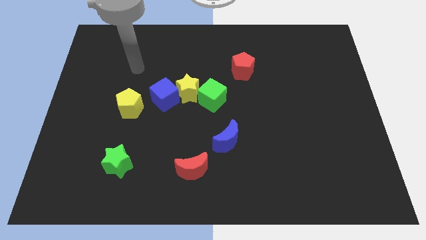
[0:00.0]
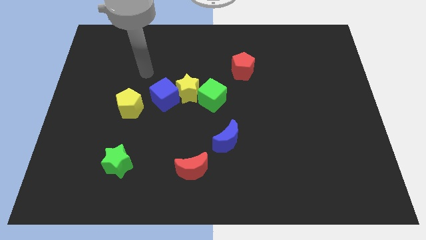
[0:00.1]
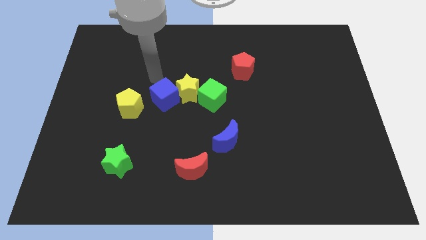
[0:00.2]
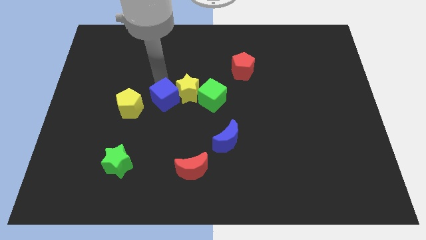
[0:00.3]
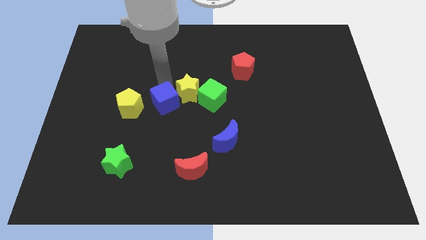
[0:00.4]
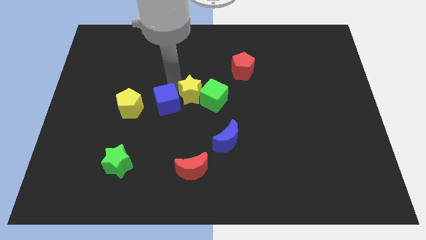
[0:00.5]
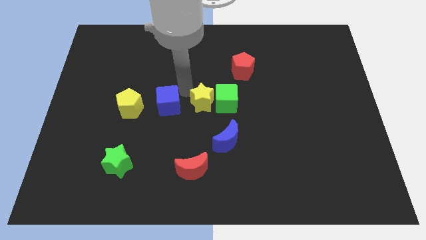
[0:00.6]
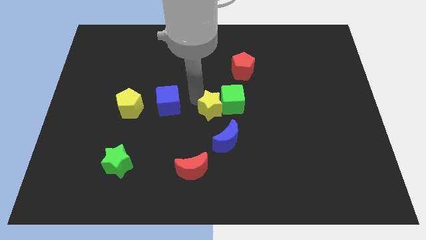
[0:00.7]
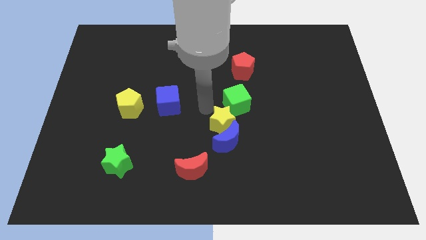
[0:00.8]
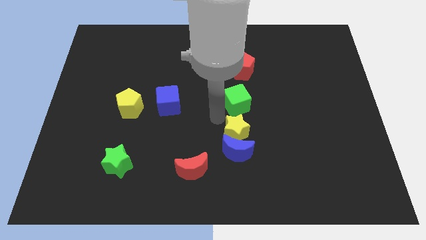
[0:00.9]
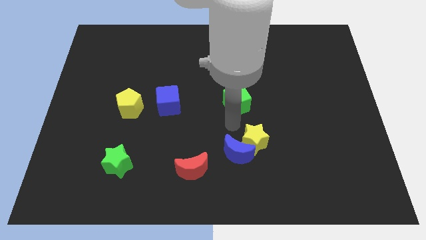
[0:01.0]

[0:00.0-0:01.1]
pull the green cube apart from the yellow star

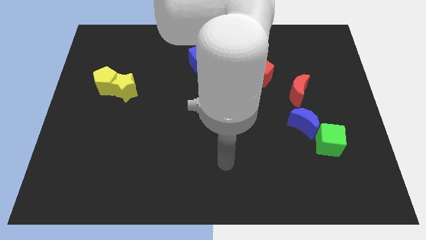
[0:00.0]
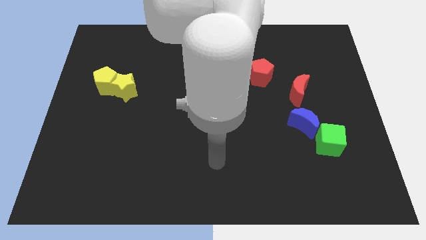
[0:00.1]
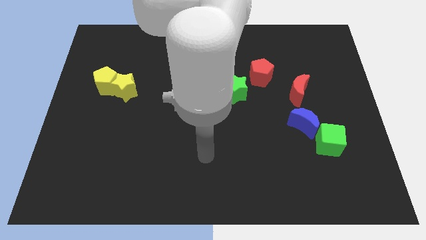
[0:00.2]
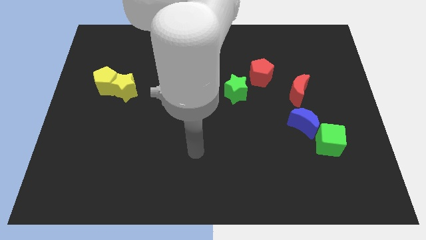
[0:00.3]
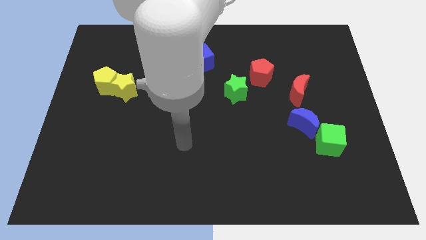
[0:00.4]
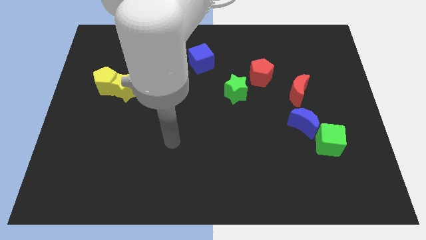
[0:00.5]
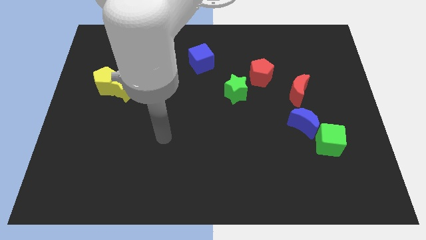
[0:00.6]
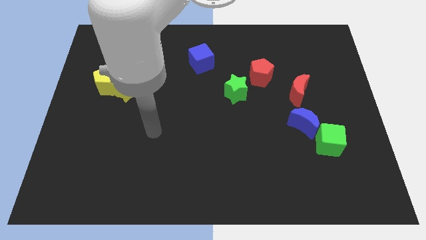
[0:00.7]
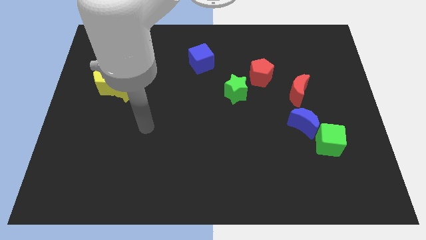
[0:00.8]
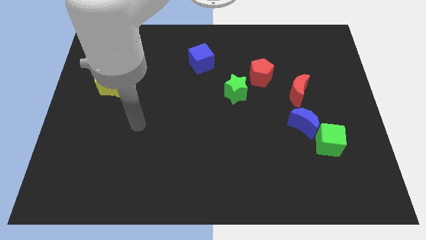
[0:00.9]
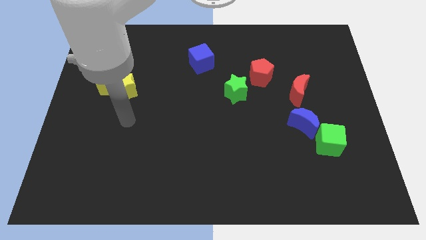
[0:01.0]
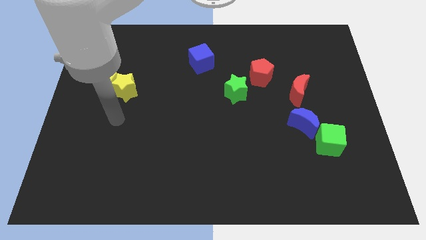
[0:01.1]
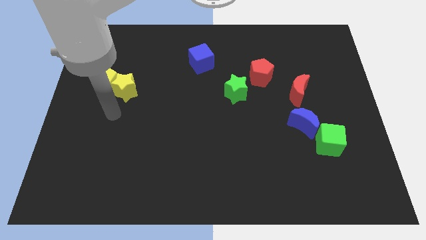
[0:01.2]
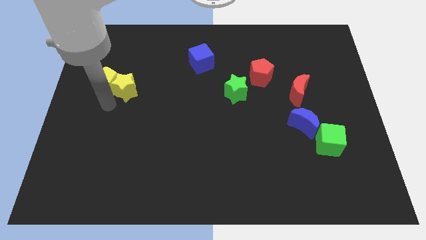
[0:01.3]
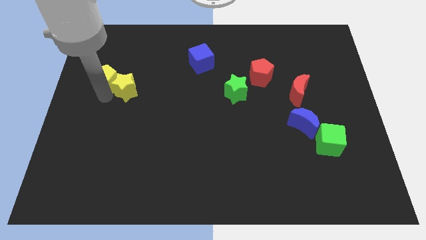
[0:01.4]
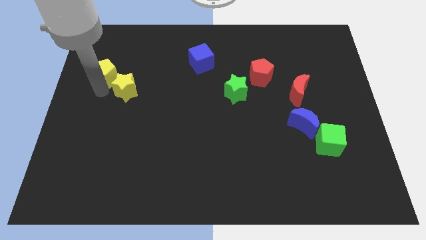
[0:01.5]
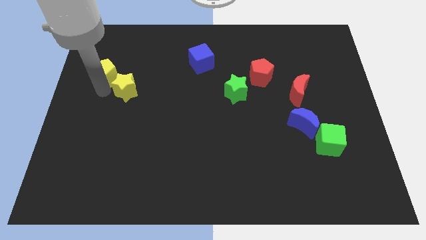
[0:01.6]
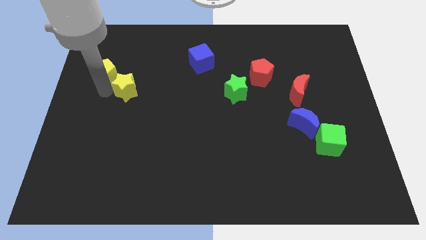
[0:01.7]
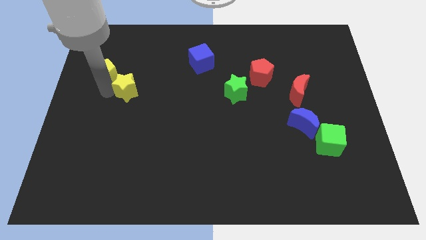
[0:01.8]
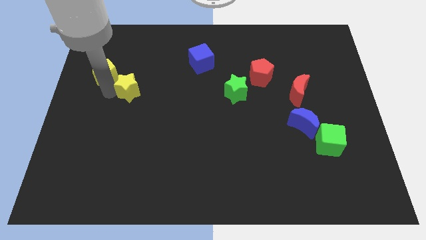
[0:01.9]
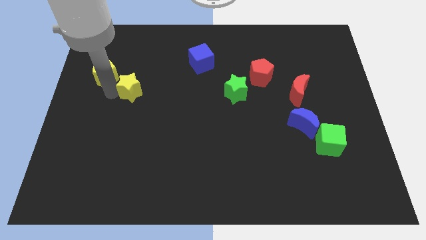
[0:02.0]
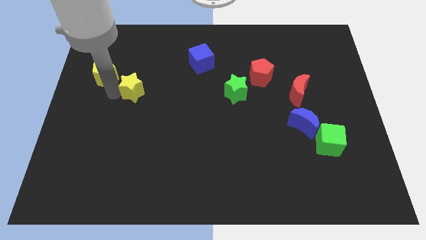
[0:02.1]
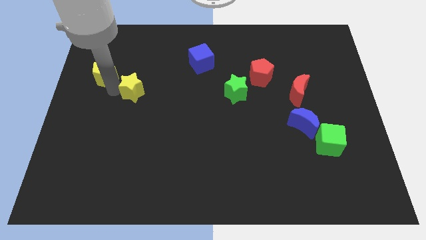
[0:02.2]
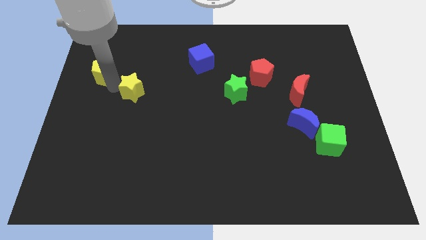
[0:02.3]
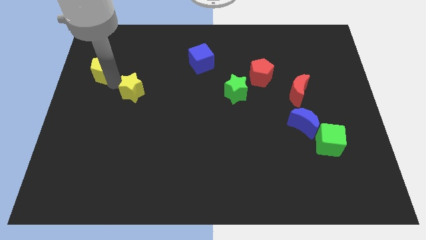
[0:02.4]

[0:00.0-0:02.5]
pull the yellow star apart from the yellow pentagon

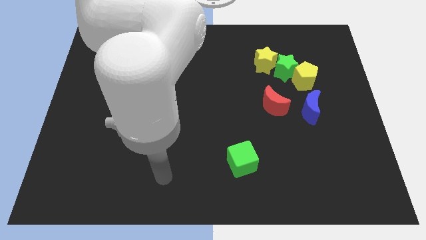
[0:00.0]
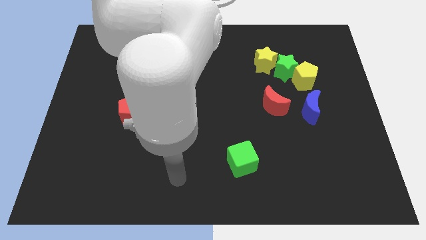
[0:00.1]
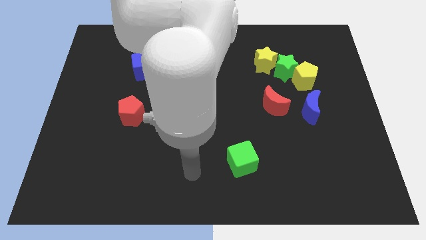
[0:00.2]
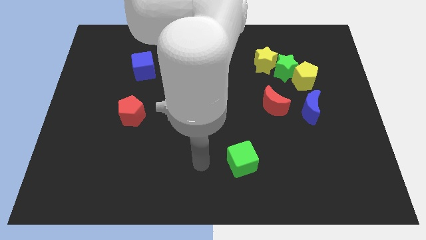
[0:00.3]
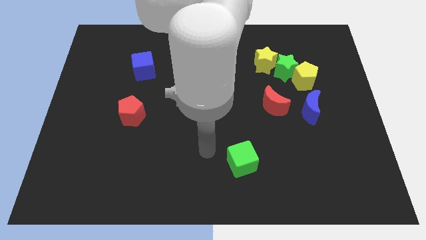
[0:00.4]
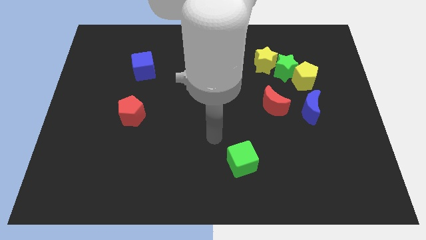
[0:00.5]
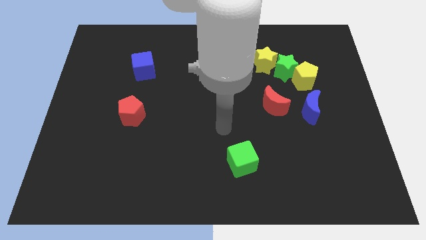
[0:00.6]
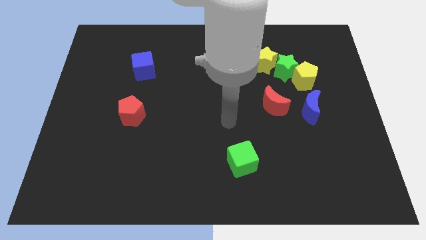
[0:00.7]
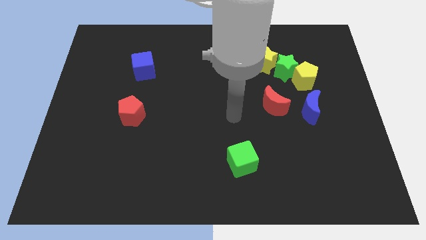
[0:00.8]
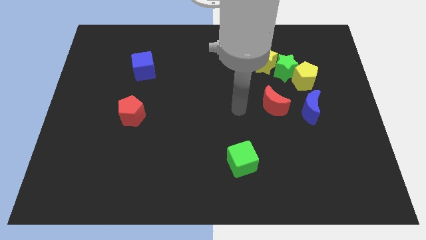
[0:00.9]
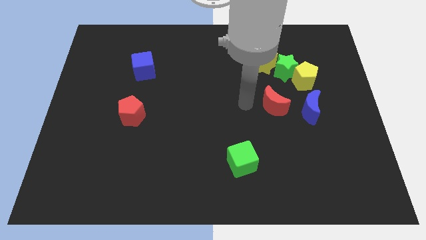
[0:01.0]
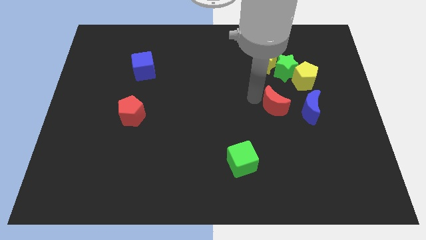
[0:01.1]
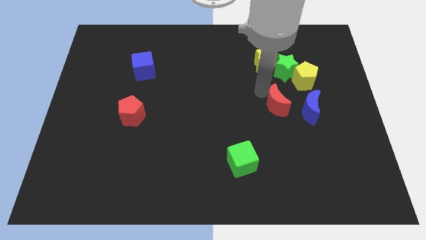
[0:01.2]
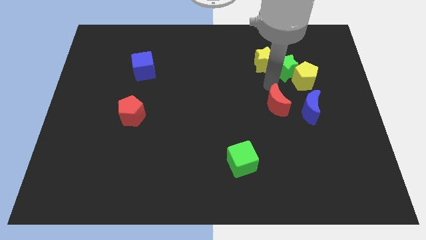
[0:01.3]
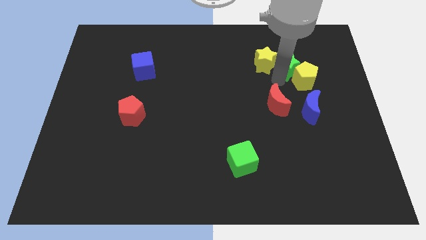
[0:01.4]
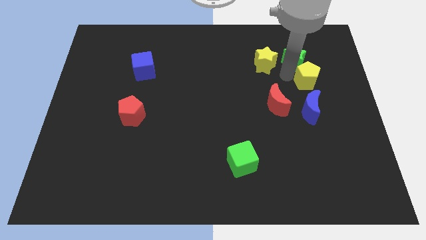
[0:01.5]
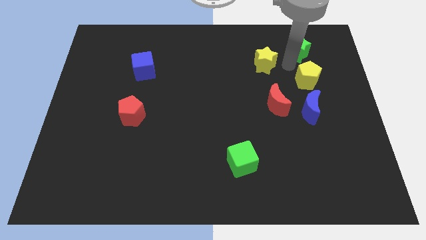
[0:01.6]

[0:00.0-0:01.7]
move the yellow star away from the green star

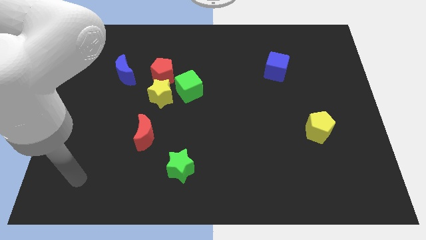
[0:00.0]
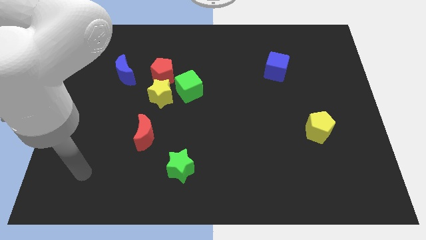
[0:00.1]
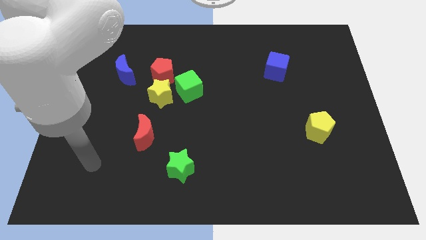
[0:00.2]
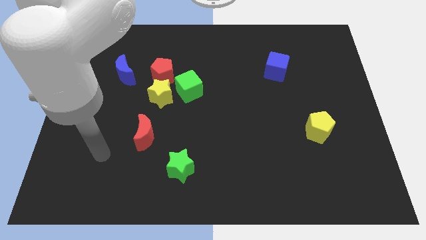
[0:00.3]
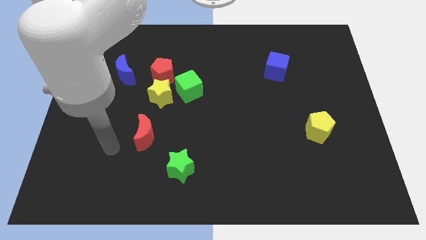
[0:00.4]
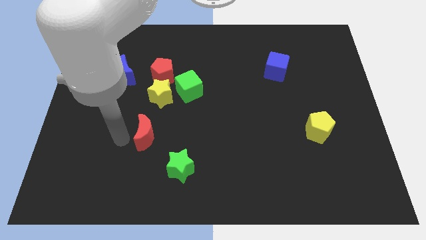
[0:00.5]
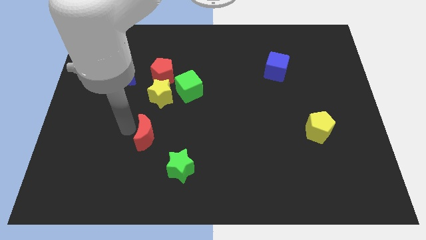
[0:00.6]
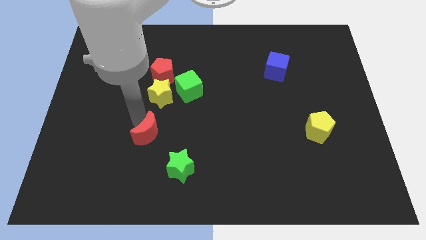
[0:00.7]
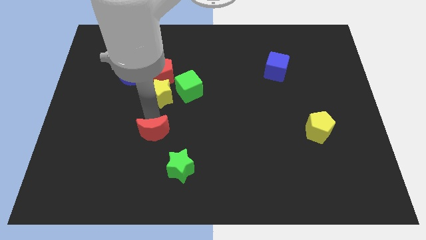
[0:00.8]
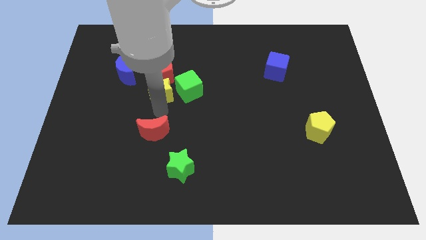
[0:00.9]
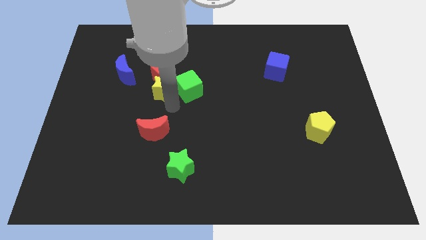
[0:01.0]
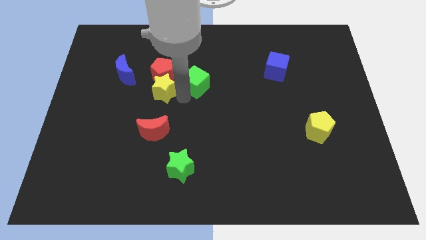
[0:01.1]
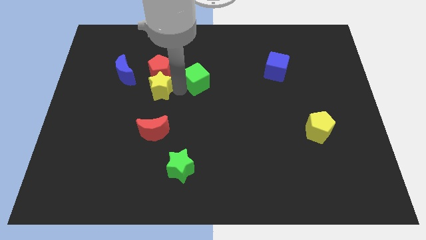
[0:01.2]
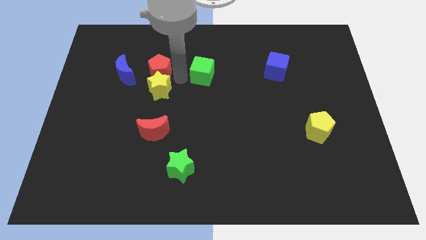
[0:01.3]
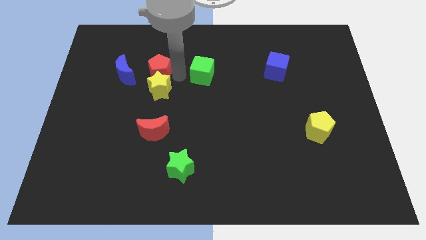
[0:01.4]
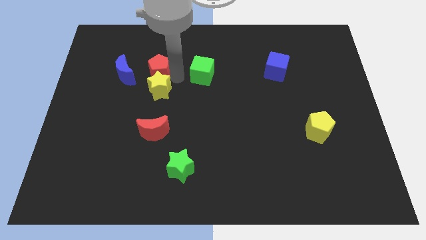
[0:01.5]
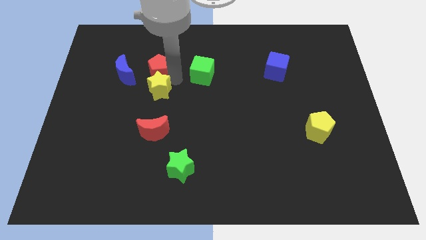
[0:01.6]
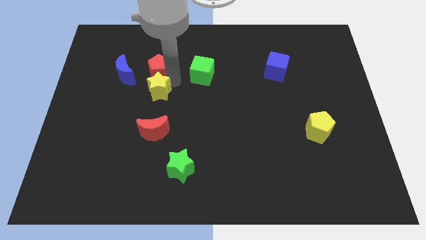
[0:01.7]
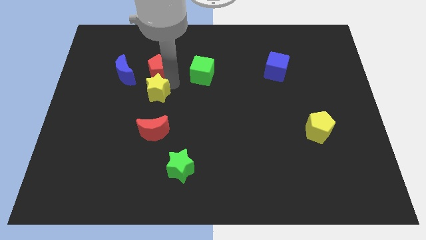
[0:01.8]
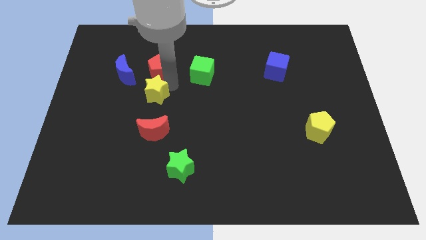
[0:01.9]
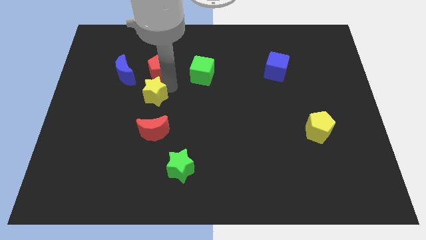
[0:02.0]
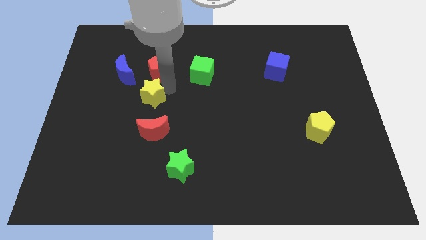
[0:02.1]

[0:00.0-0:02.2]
pull the yellow star apart from the red pentagon and green cube

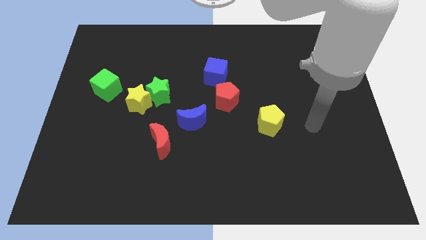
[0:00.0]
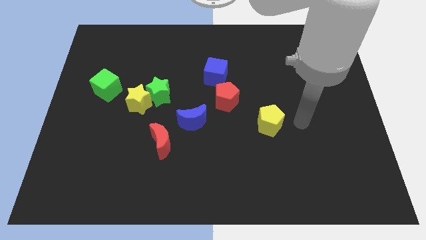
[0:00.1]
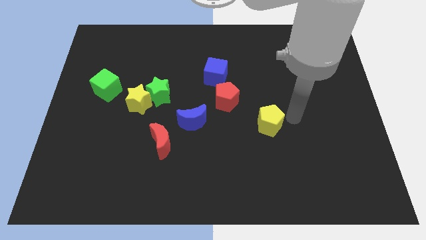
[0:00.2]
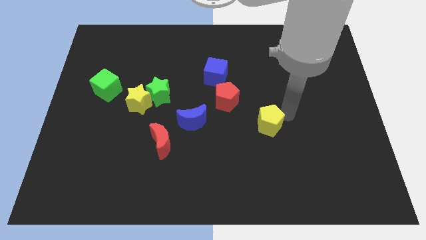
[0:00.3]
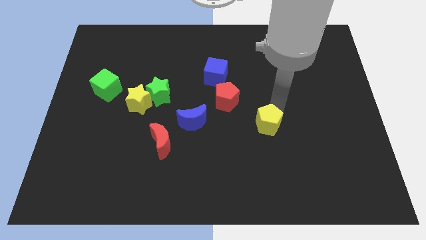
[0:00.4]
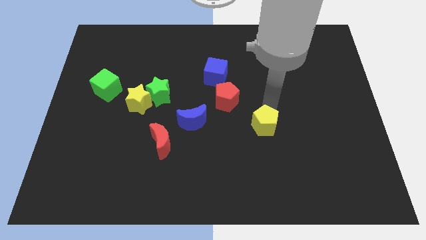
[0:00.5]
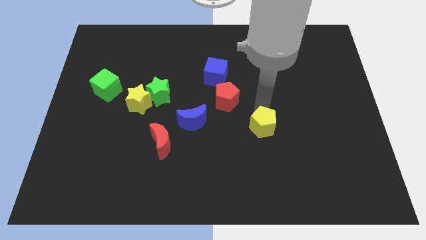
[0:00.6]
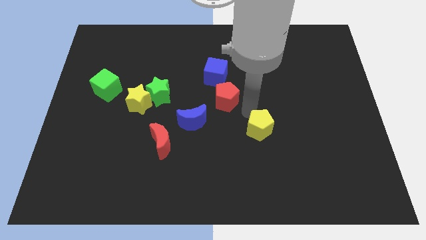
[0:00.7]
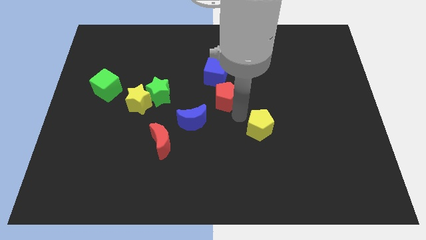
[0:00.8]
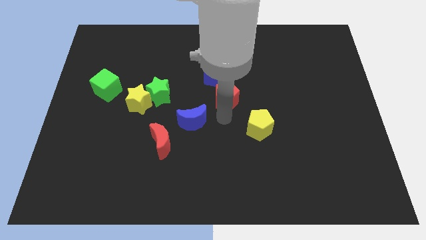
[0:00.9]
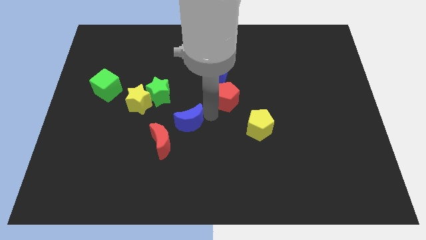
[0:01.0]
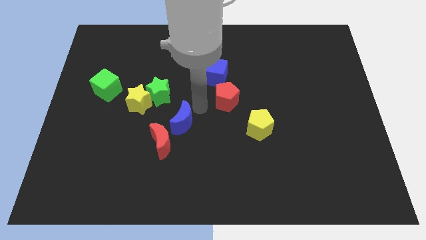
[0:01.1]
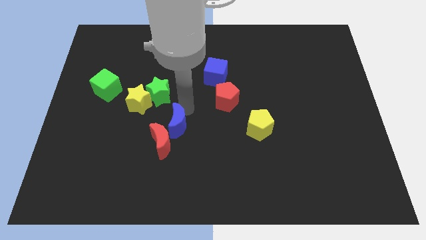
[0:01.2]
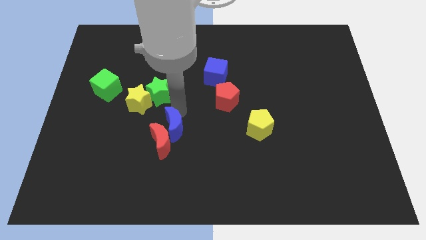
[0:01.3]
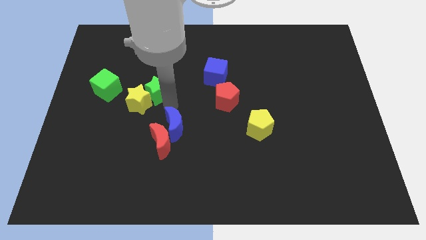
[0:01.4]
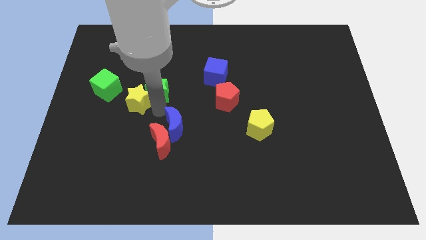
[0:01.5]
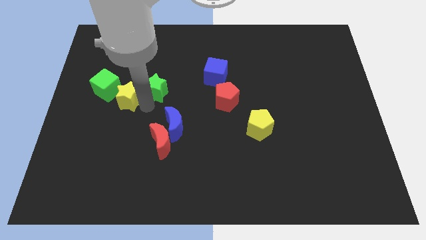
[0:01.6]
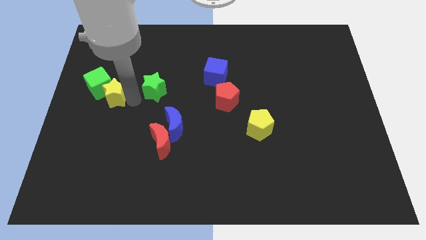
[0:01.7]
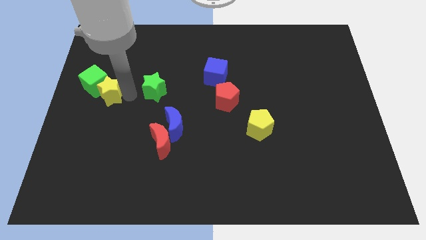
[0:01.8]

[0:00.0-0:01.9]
separate the green star from the yellow star
